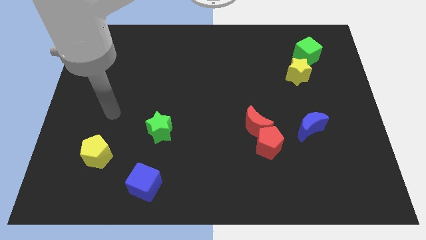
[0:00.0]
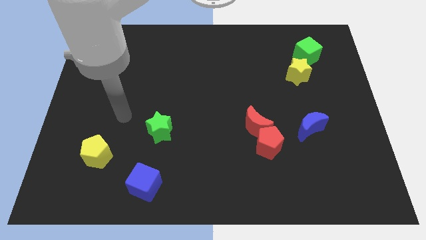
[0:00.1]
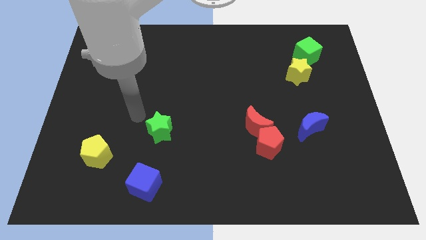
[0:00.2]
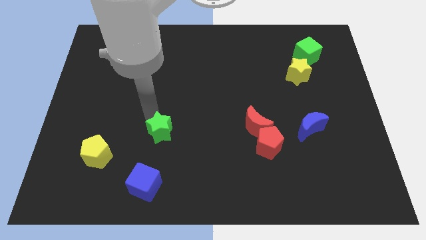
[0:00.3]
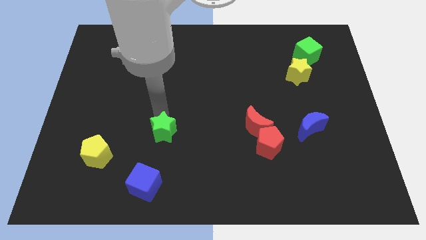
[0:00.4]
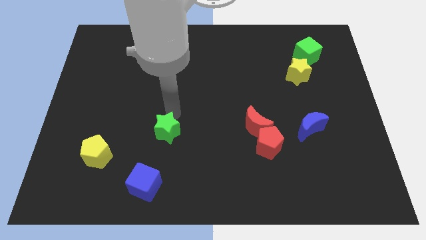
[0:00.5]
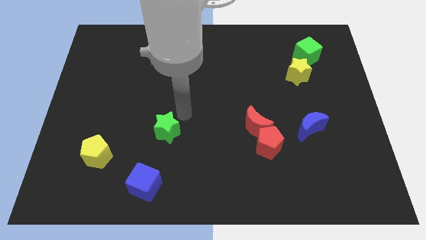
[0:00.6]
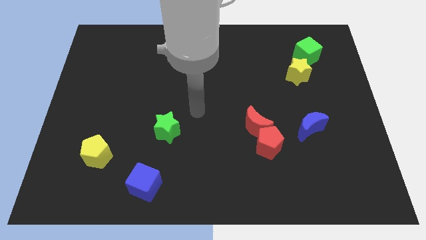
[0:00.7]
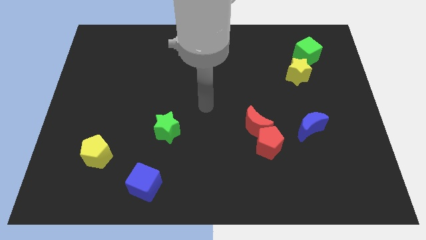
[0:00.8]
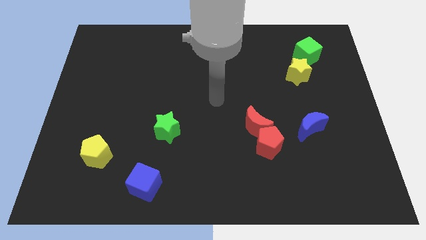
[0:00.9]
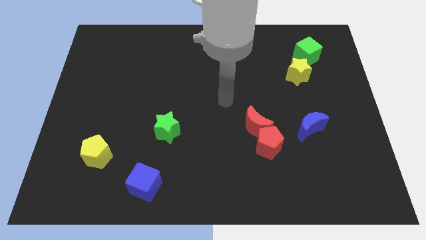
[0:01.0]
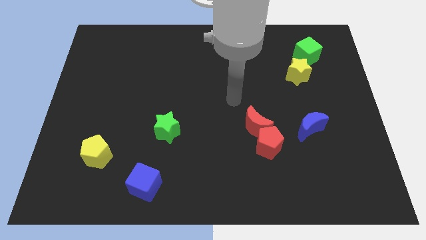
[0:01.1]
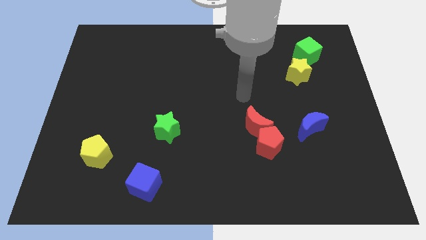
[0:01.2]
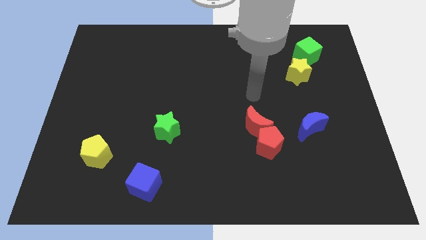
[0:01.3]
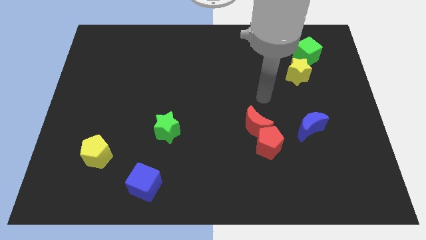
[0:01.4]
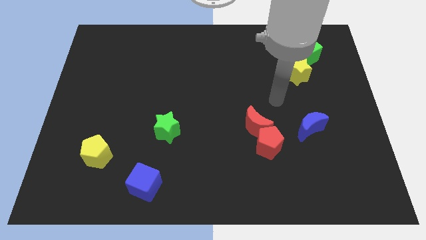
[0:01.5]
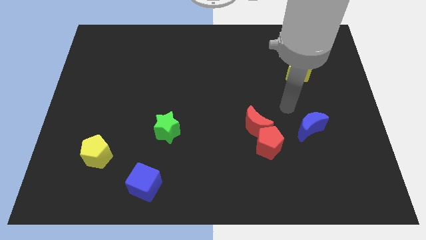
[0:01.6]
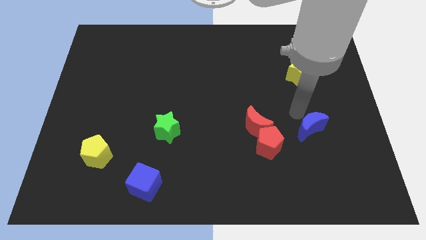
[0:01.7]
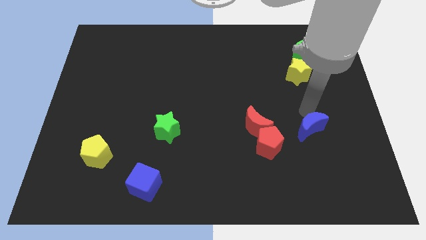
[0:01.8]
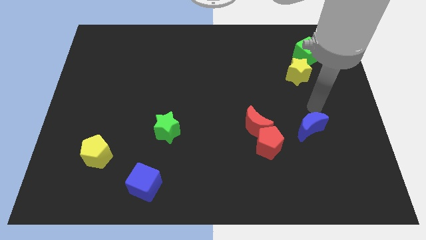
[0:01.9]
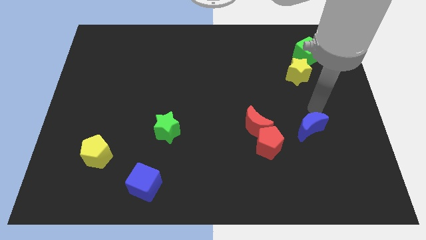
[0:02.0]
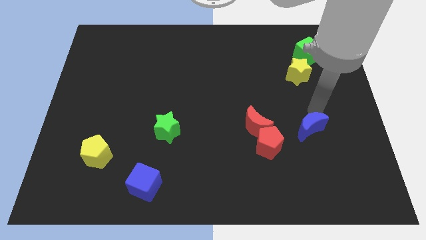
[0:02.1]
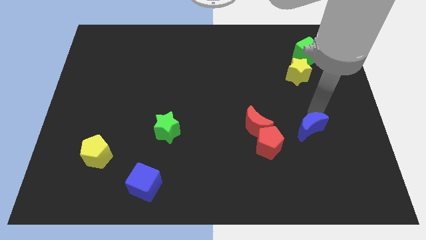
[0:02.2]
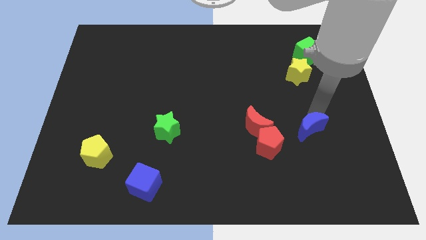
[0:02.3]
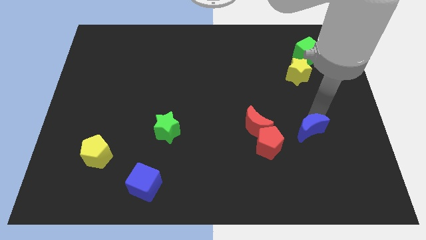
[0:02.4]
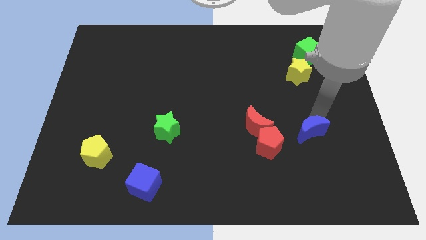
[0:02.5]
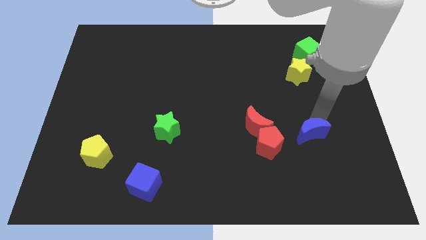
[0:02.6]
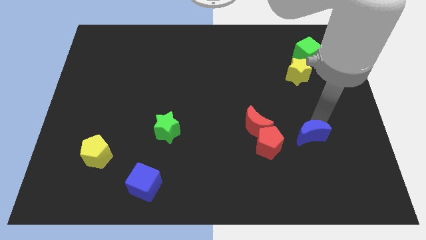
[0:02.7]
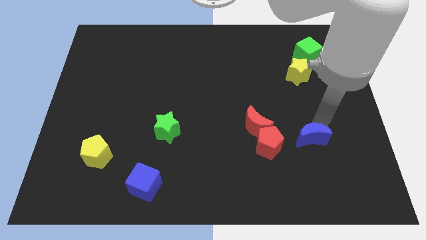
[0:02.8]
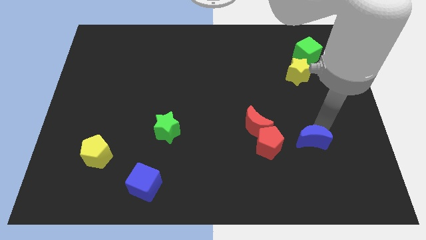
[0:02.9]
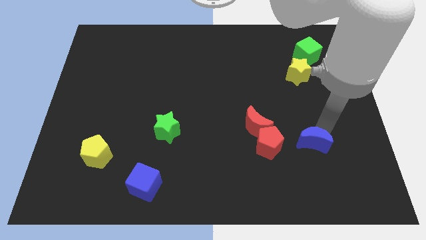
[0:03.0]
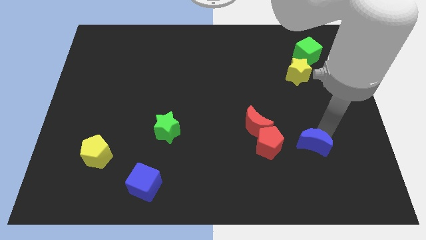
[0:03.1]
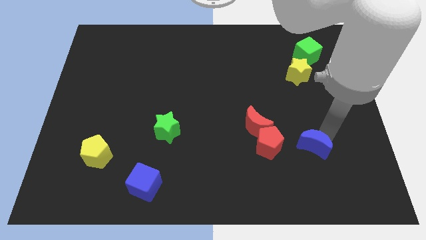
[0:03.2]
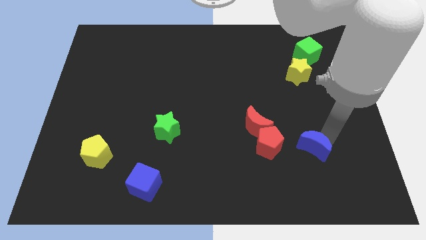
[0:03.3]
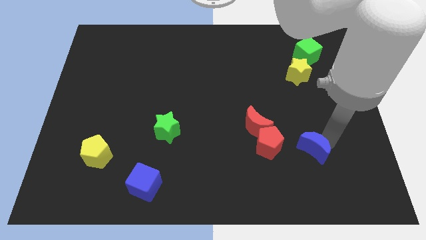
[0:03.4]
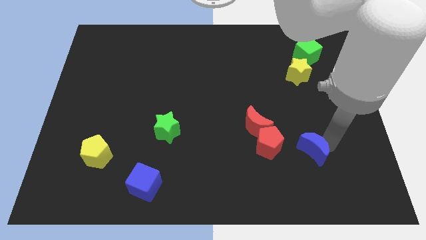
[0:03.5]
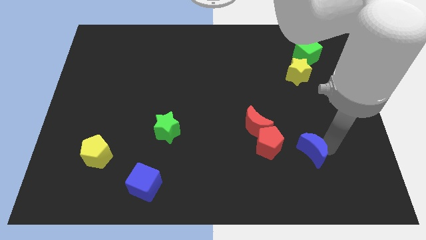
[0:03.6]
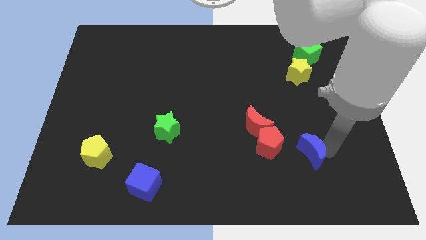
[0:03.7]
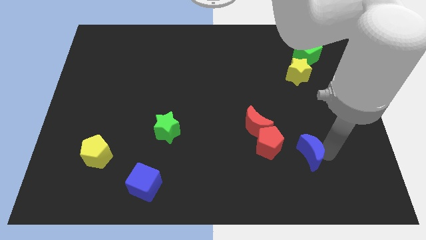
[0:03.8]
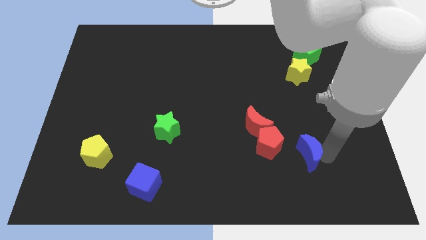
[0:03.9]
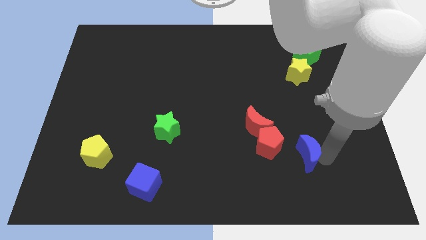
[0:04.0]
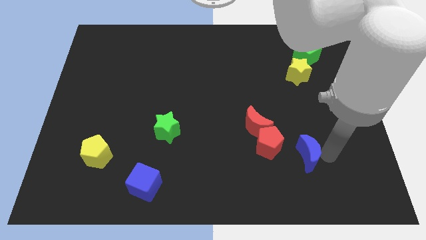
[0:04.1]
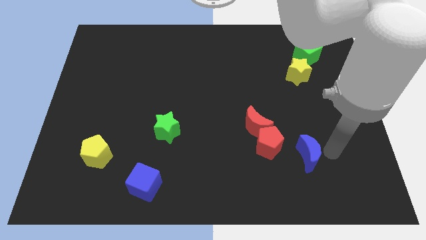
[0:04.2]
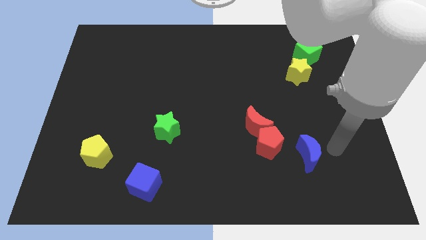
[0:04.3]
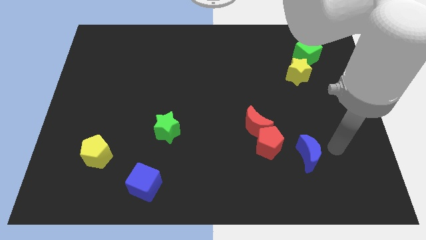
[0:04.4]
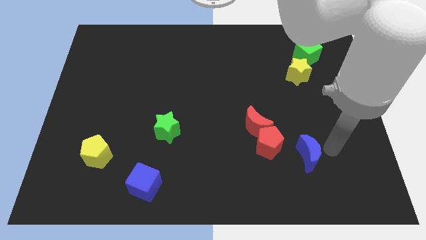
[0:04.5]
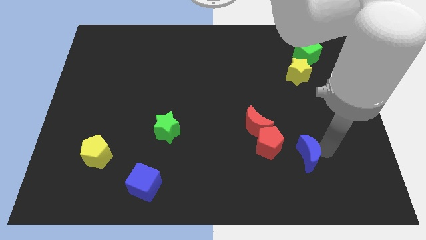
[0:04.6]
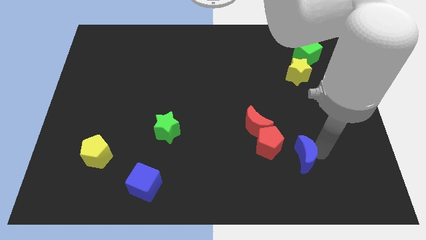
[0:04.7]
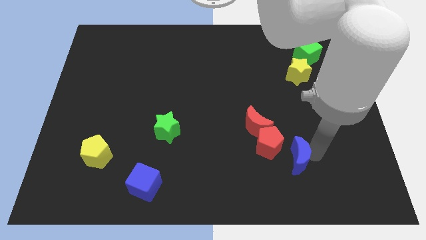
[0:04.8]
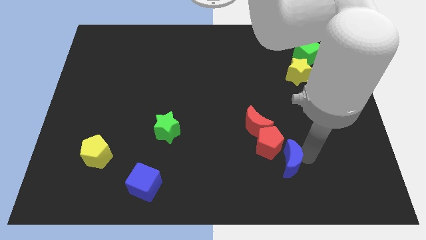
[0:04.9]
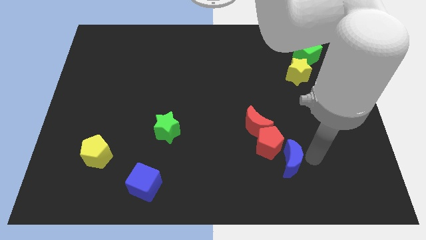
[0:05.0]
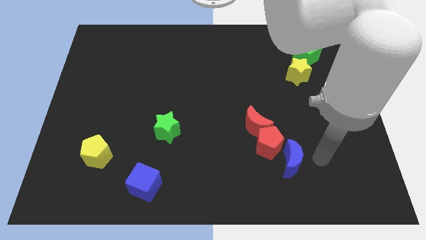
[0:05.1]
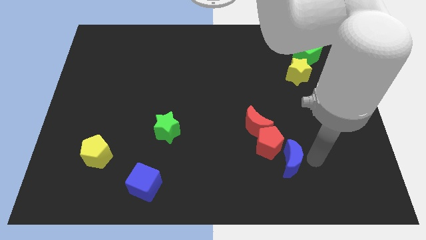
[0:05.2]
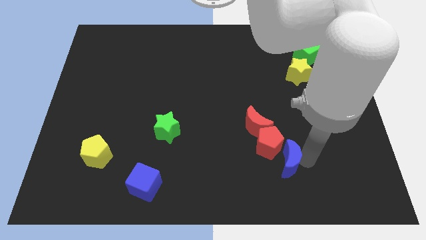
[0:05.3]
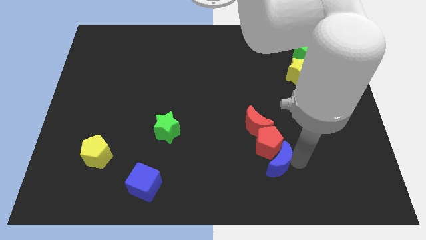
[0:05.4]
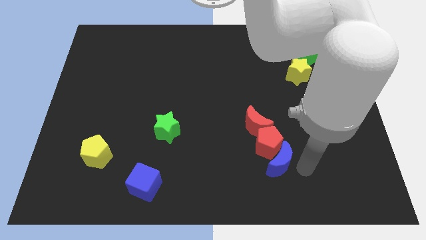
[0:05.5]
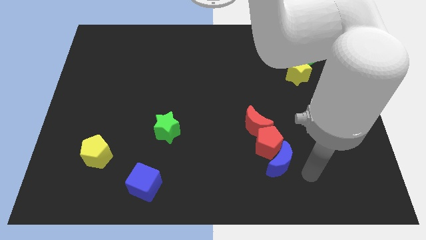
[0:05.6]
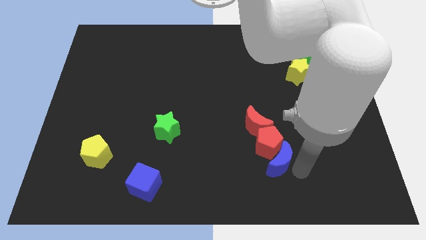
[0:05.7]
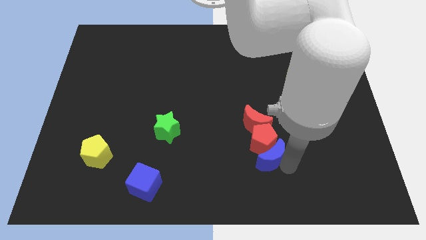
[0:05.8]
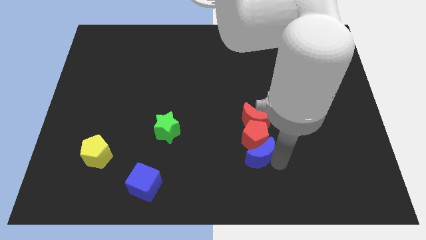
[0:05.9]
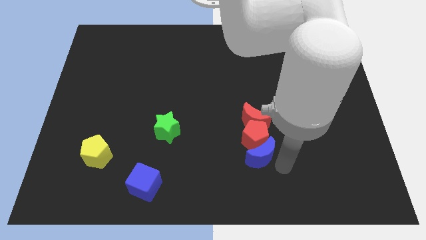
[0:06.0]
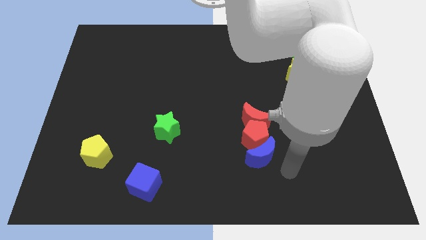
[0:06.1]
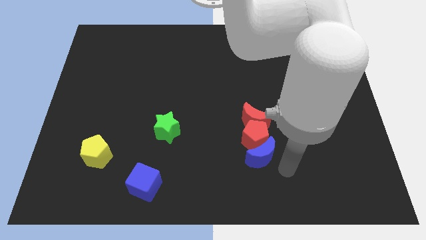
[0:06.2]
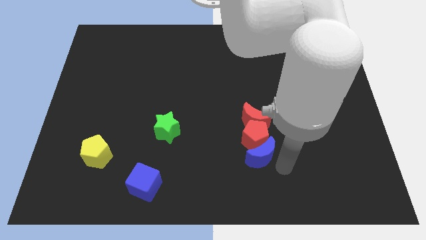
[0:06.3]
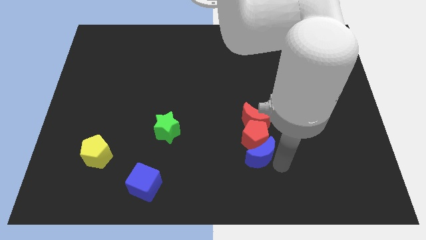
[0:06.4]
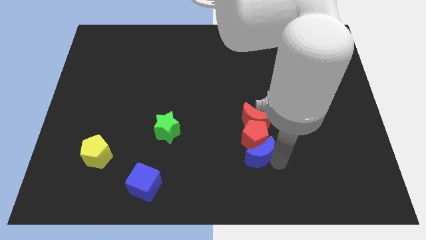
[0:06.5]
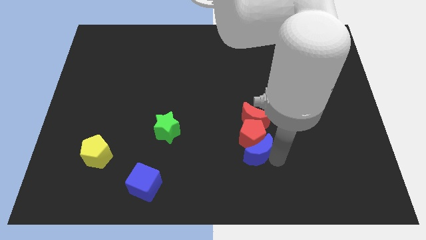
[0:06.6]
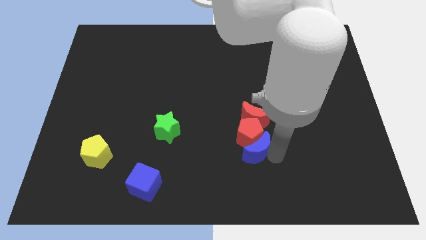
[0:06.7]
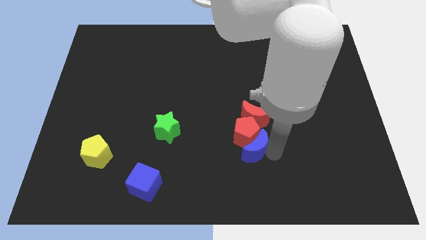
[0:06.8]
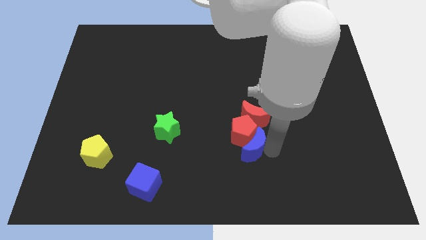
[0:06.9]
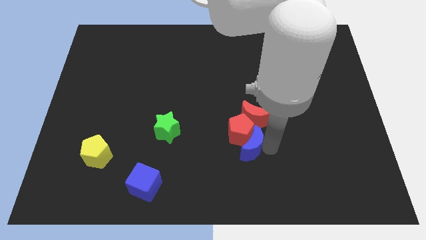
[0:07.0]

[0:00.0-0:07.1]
slide the blue moon diagonally down and to the left of the red moon
